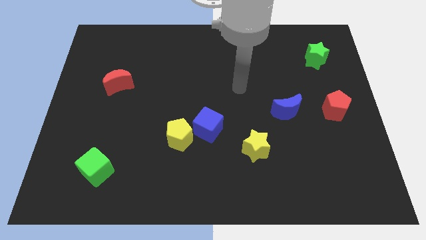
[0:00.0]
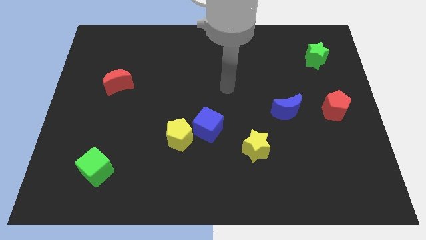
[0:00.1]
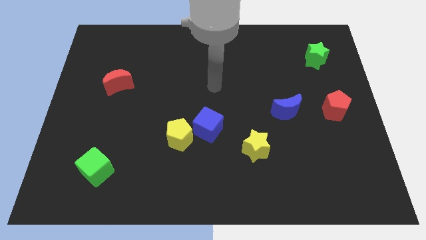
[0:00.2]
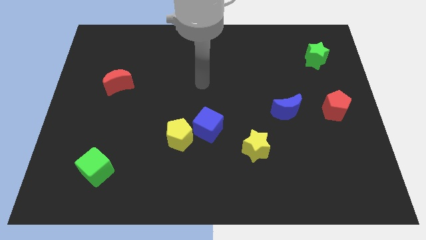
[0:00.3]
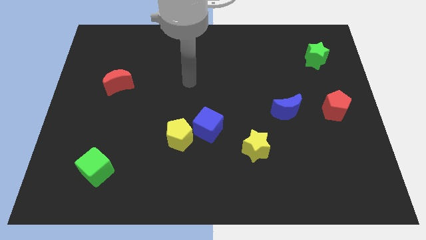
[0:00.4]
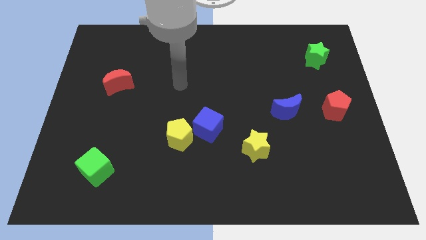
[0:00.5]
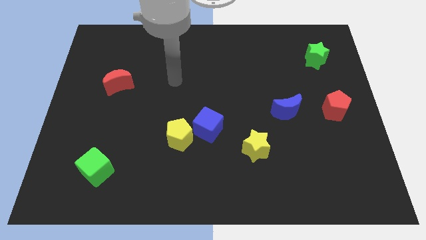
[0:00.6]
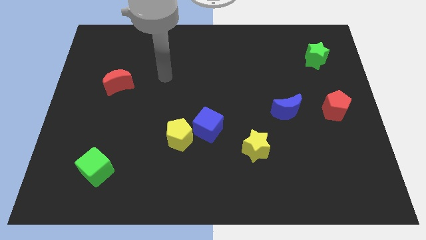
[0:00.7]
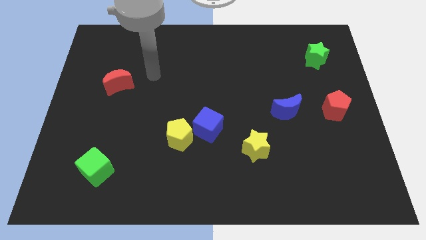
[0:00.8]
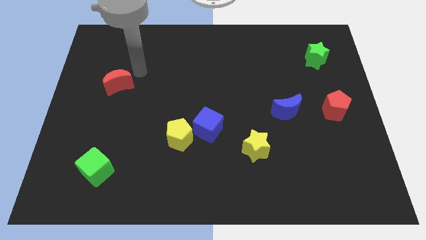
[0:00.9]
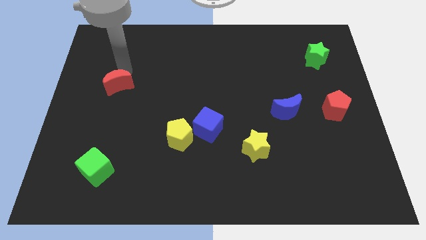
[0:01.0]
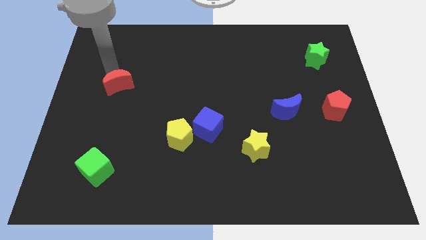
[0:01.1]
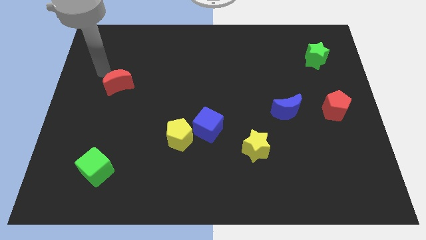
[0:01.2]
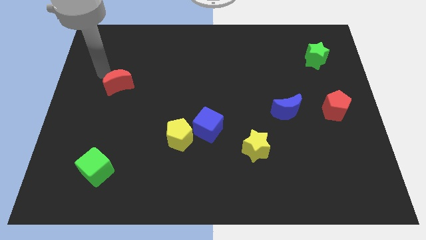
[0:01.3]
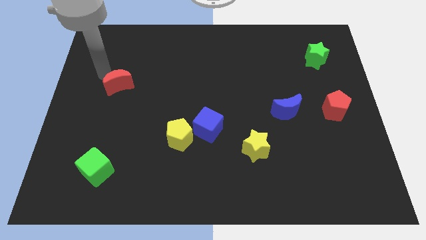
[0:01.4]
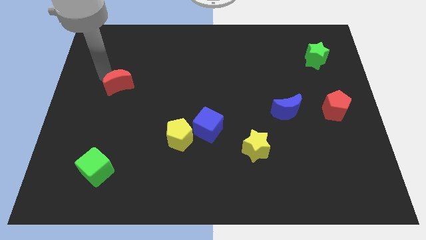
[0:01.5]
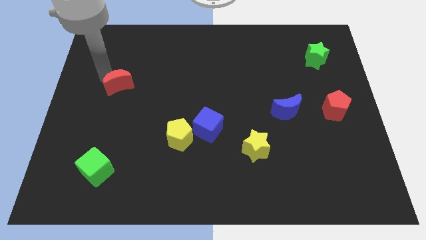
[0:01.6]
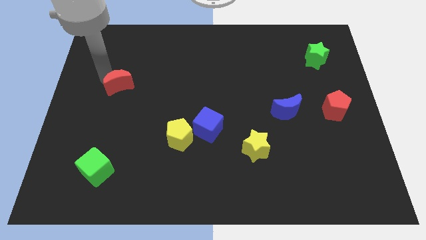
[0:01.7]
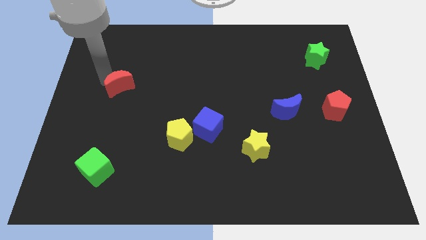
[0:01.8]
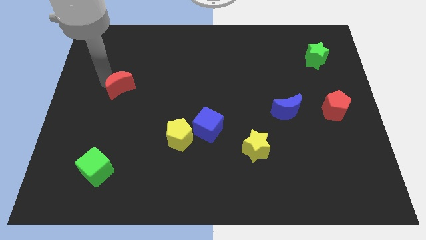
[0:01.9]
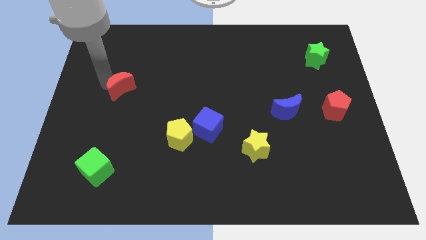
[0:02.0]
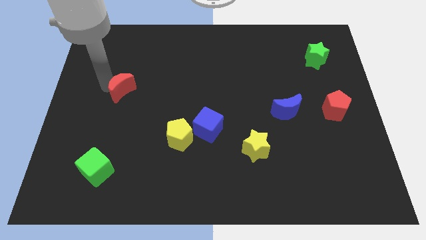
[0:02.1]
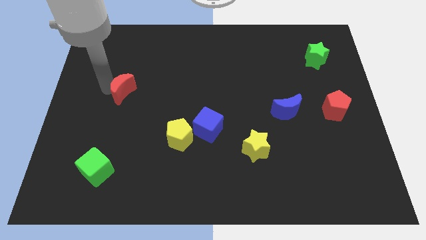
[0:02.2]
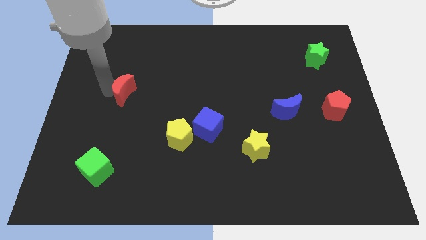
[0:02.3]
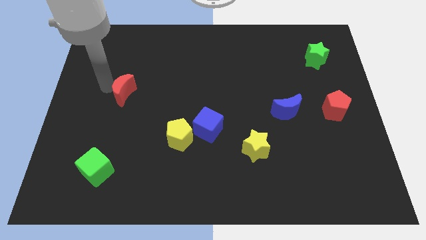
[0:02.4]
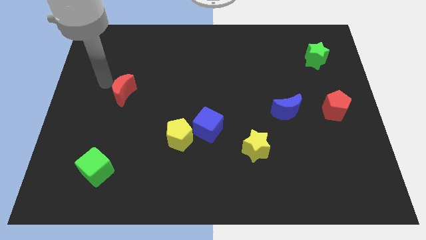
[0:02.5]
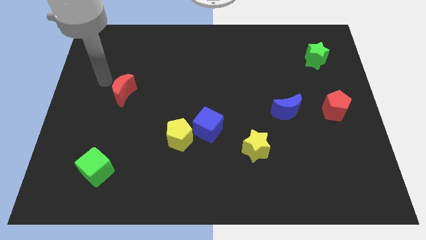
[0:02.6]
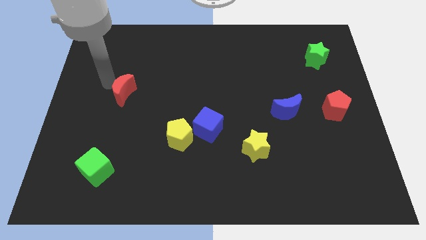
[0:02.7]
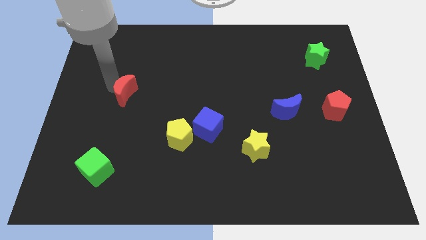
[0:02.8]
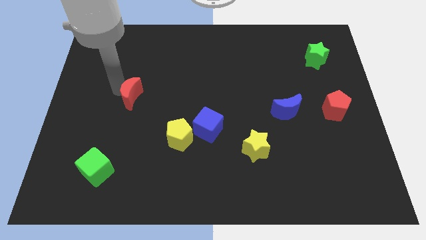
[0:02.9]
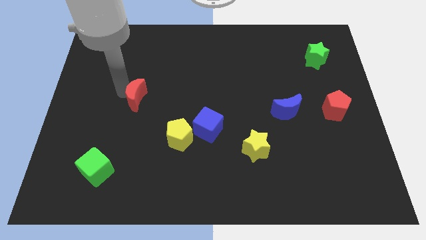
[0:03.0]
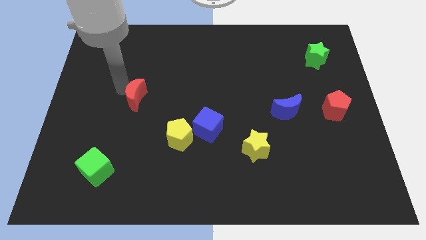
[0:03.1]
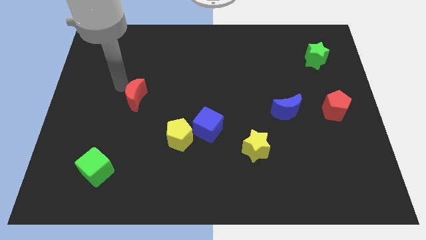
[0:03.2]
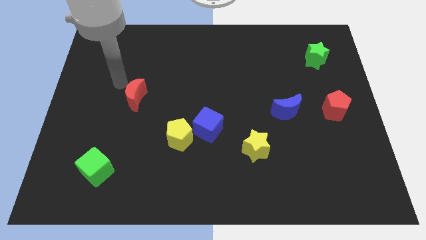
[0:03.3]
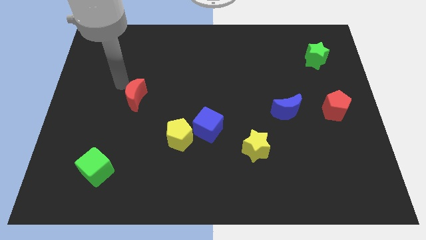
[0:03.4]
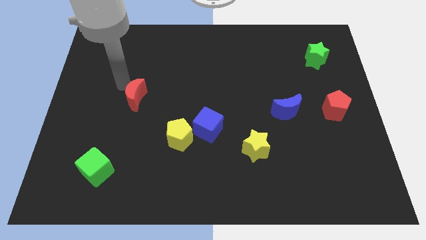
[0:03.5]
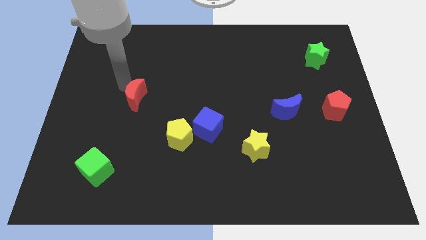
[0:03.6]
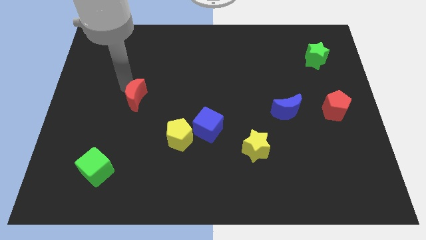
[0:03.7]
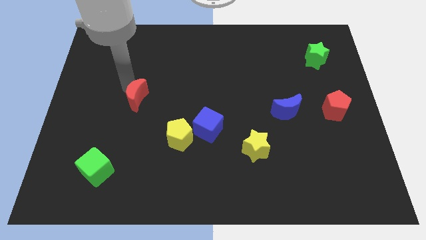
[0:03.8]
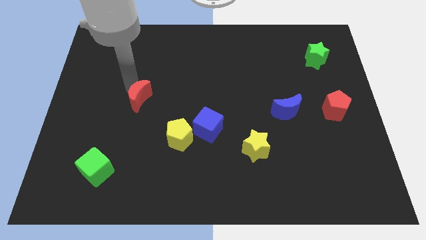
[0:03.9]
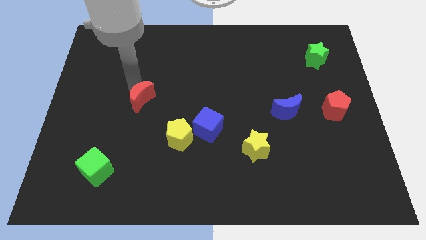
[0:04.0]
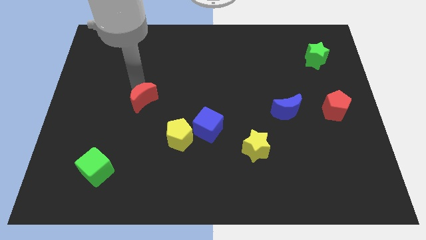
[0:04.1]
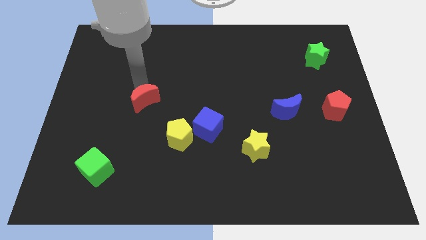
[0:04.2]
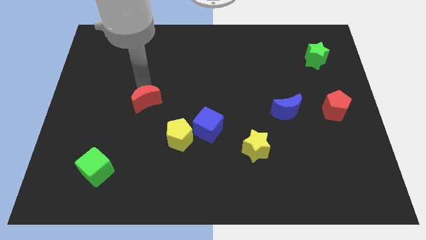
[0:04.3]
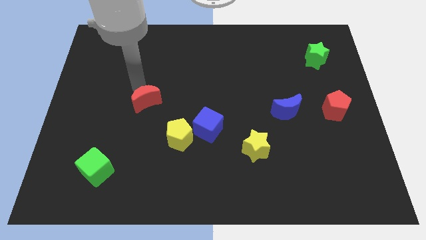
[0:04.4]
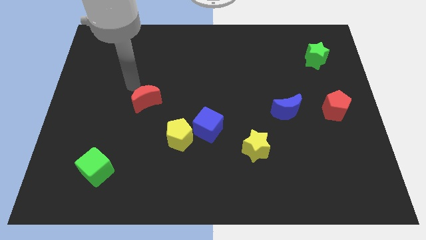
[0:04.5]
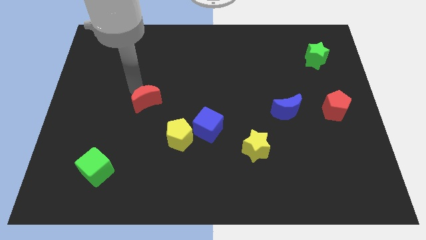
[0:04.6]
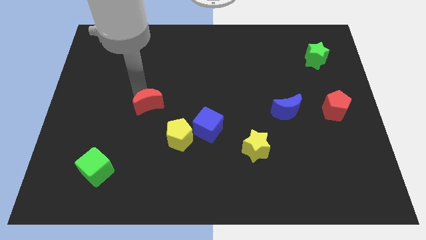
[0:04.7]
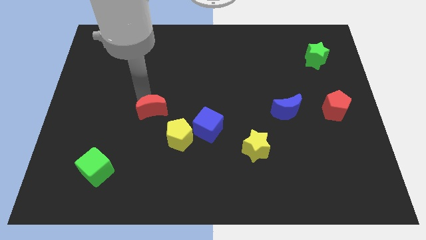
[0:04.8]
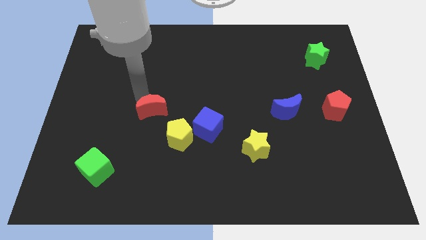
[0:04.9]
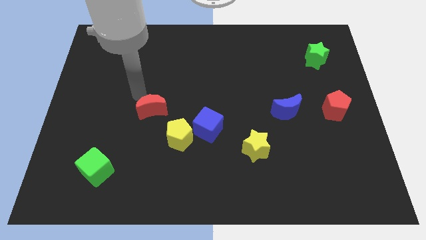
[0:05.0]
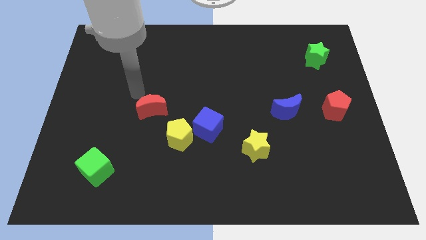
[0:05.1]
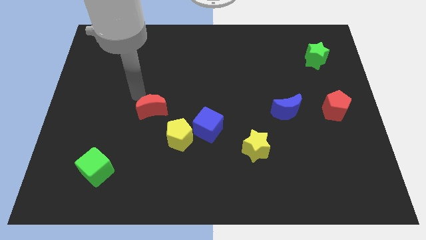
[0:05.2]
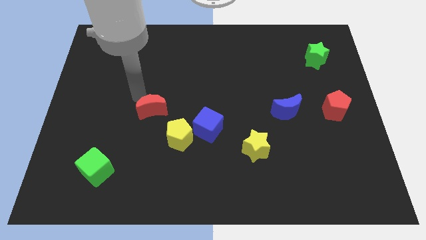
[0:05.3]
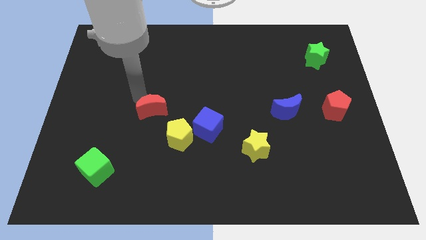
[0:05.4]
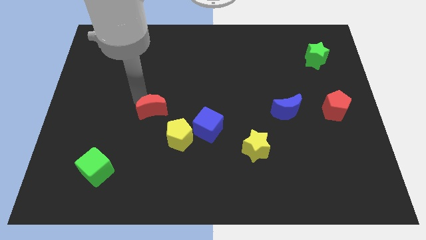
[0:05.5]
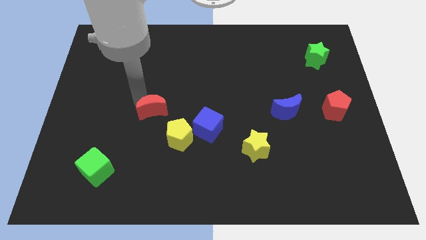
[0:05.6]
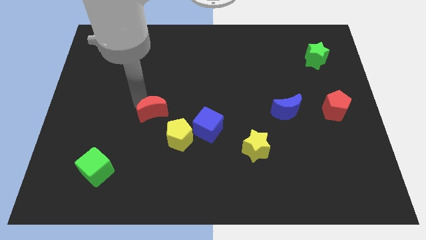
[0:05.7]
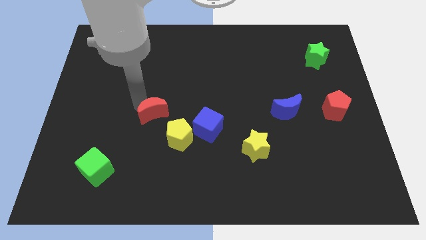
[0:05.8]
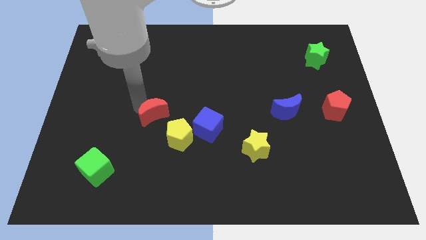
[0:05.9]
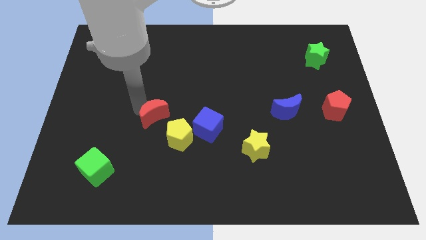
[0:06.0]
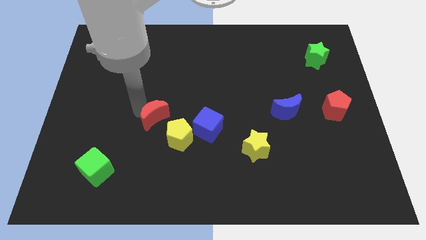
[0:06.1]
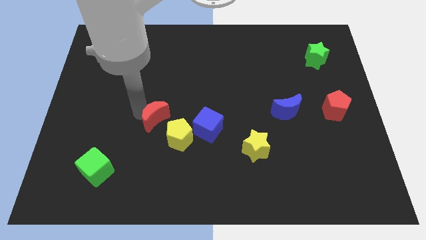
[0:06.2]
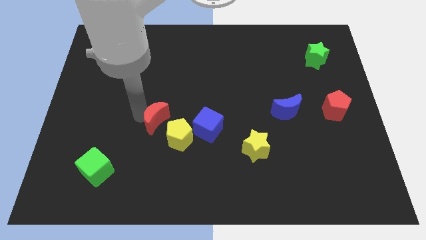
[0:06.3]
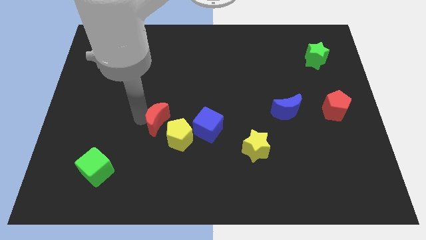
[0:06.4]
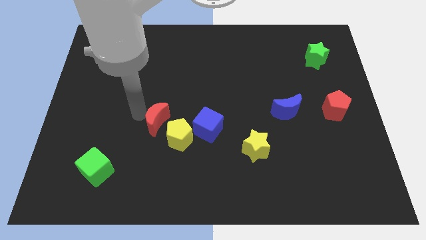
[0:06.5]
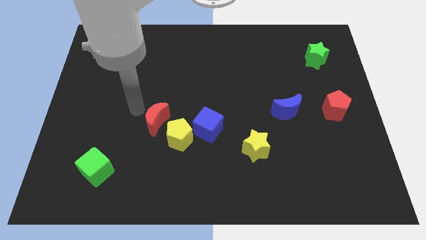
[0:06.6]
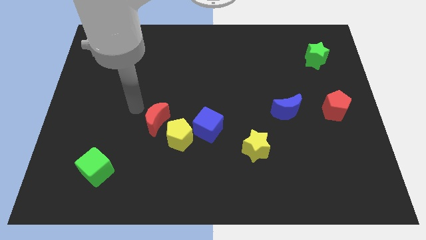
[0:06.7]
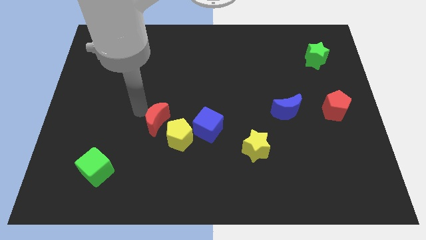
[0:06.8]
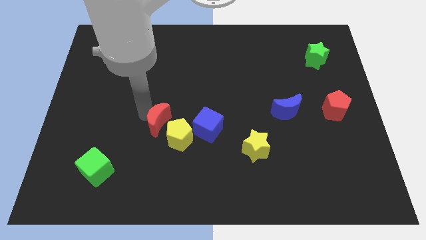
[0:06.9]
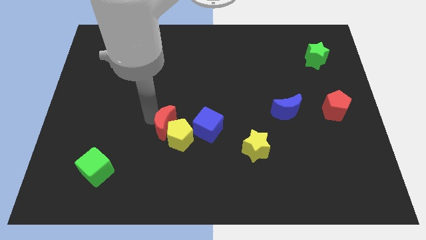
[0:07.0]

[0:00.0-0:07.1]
slide the red moon towards the yellow pentagon
